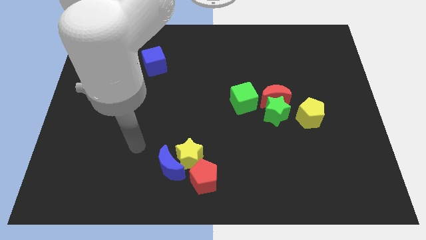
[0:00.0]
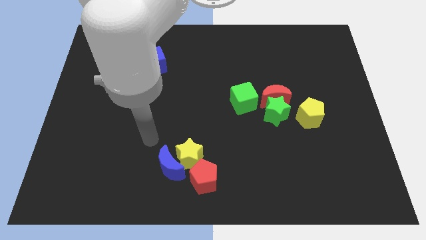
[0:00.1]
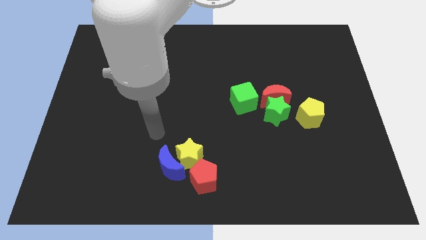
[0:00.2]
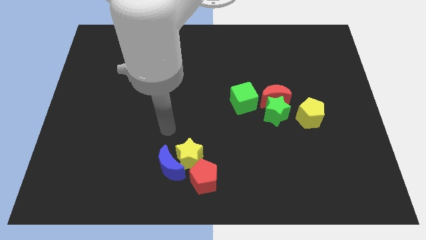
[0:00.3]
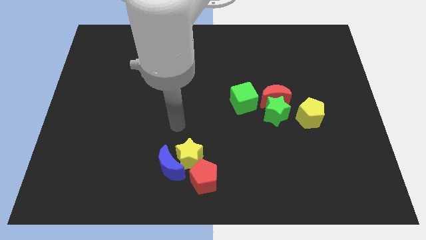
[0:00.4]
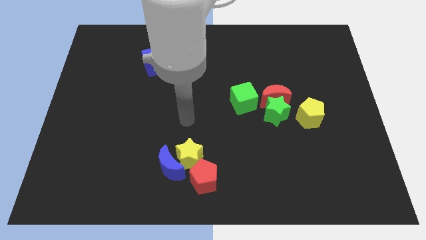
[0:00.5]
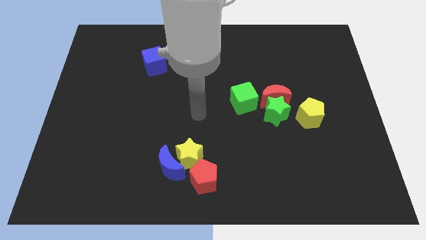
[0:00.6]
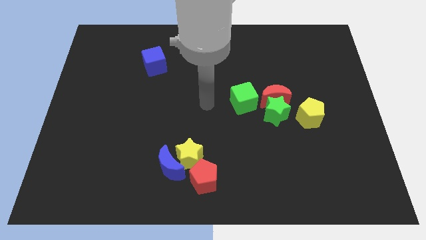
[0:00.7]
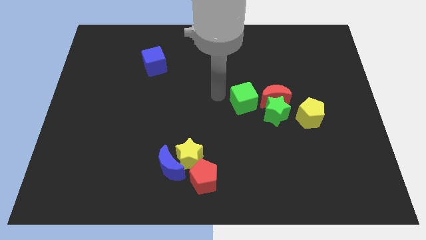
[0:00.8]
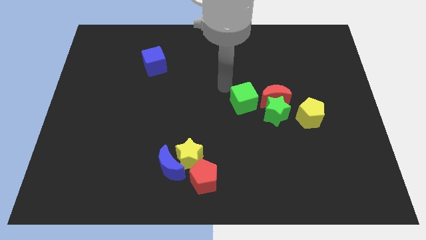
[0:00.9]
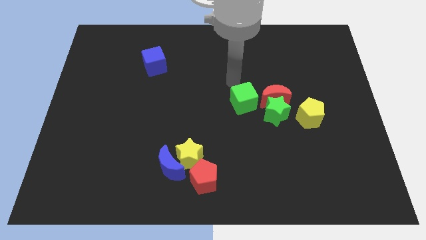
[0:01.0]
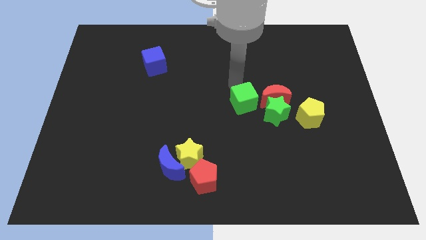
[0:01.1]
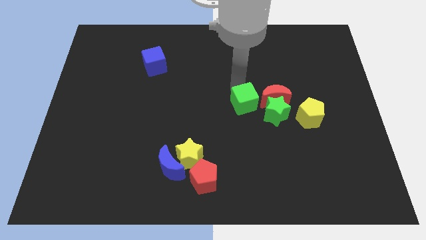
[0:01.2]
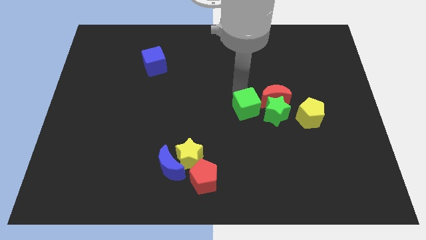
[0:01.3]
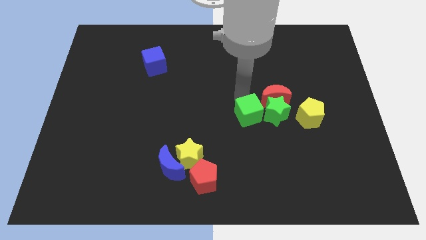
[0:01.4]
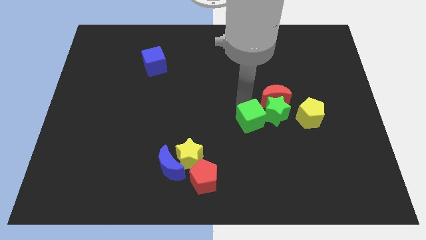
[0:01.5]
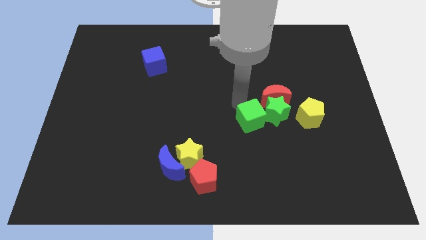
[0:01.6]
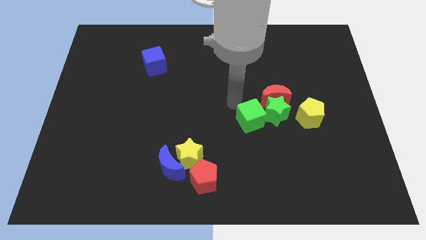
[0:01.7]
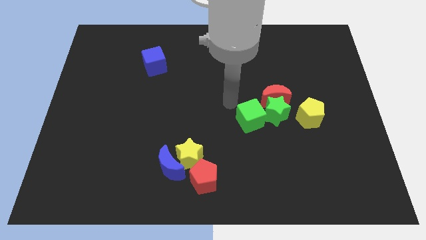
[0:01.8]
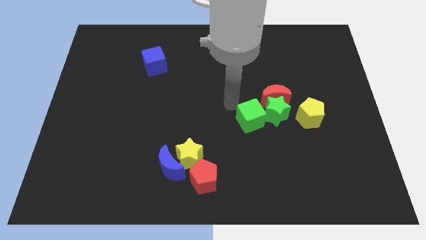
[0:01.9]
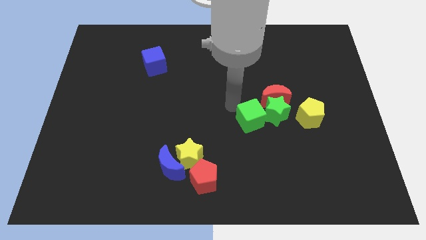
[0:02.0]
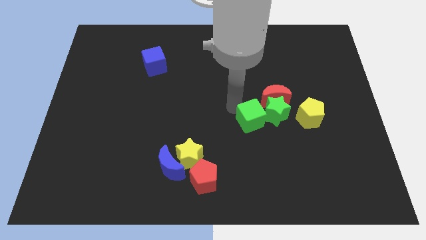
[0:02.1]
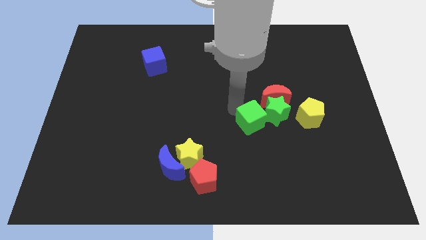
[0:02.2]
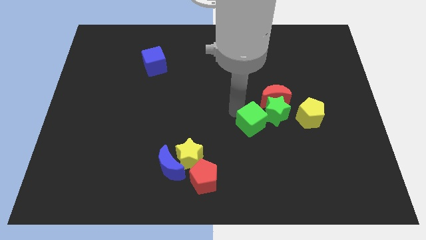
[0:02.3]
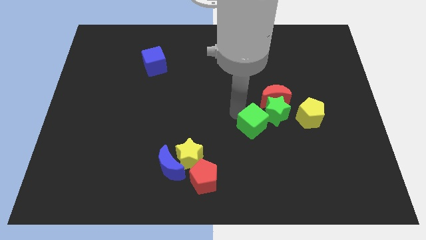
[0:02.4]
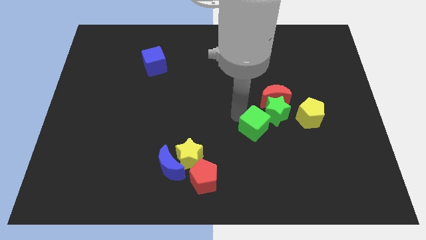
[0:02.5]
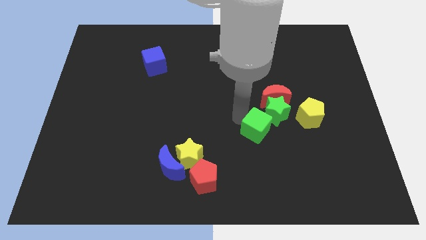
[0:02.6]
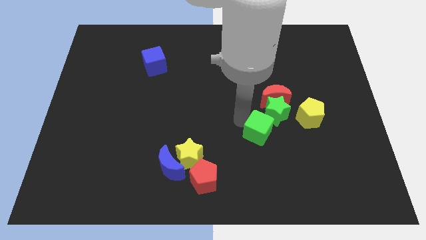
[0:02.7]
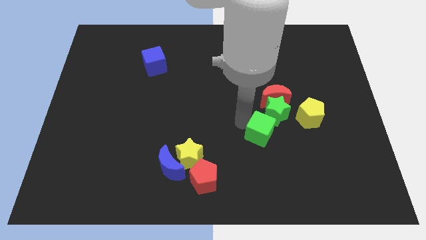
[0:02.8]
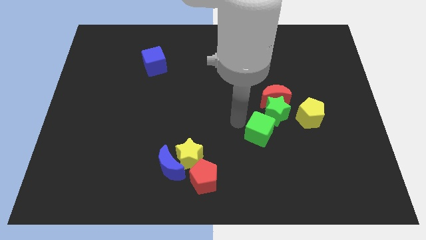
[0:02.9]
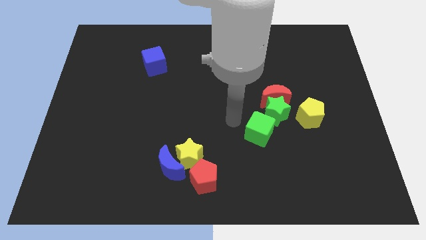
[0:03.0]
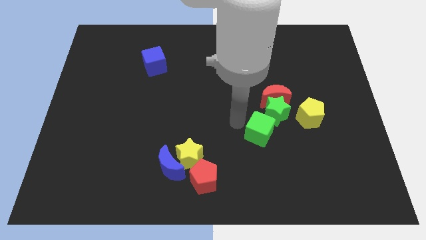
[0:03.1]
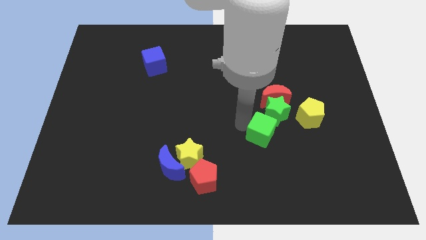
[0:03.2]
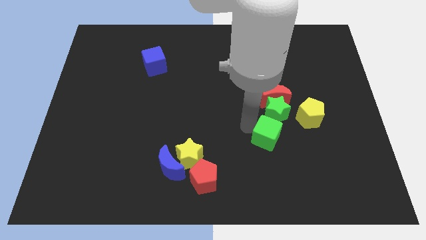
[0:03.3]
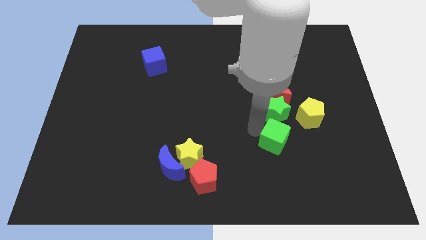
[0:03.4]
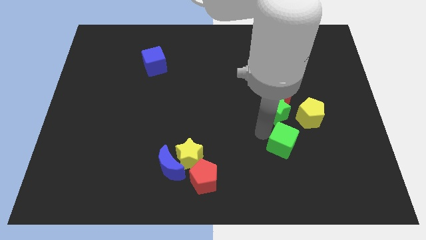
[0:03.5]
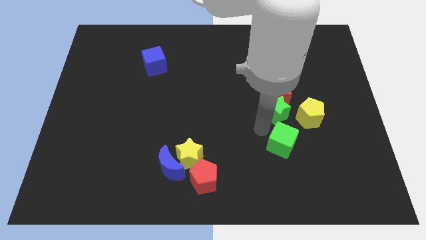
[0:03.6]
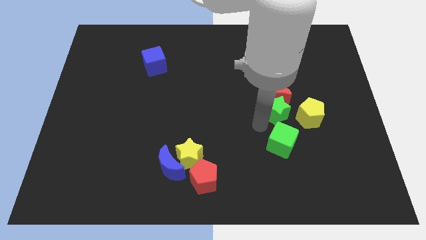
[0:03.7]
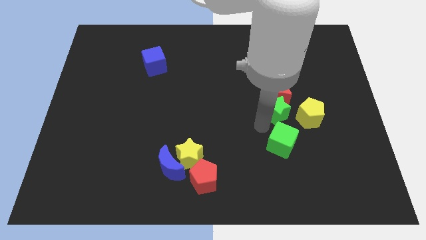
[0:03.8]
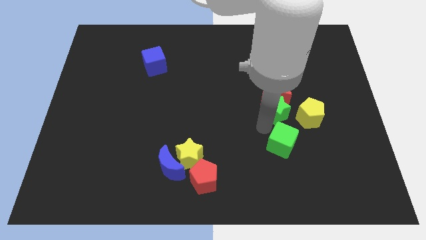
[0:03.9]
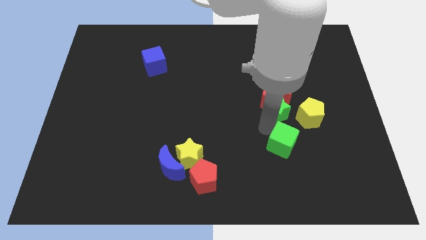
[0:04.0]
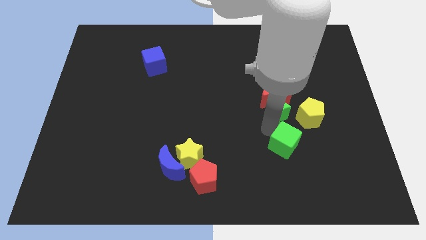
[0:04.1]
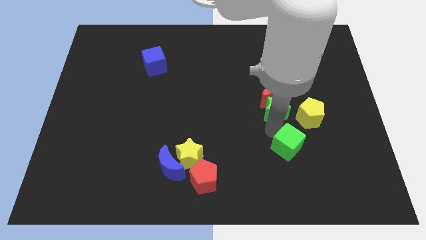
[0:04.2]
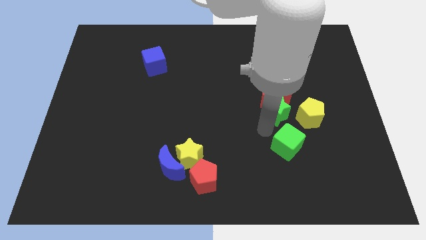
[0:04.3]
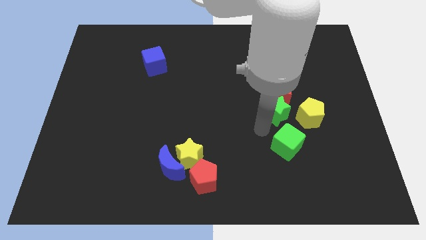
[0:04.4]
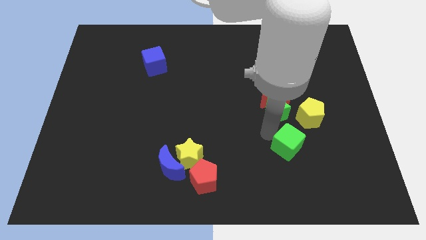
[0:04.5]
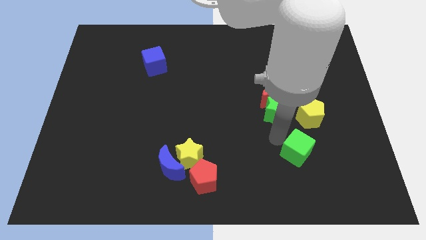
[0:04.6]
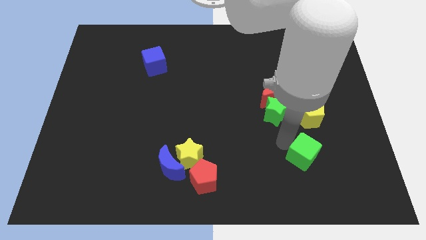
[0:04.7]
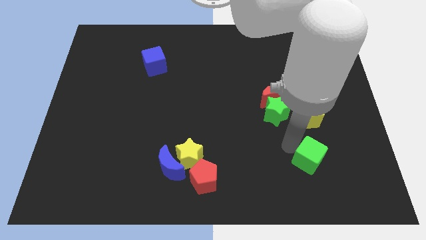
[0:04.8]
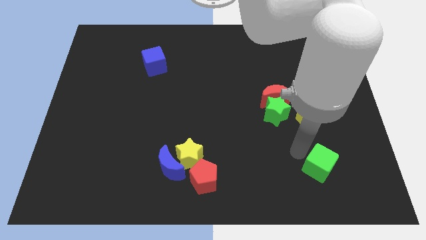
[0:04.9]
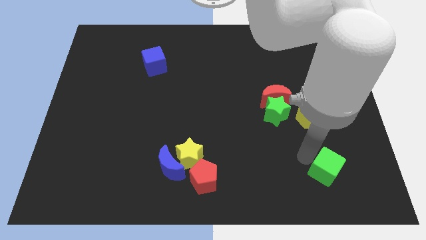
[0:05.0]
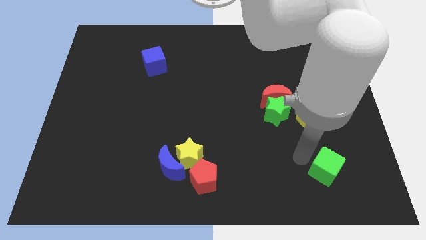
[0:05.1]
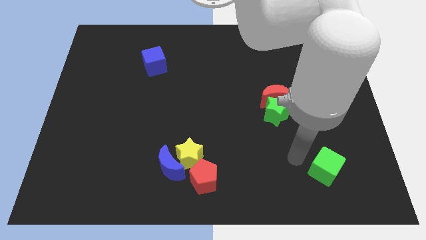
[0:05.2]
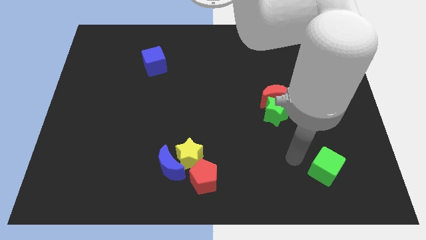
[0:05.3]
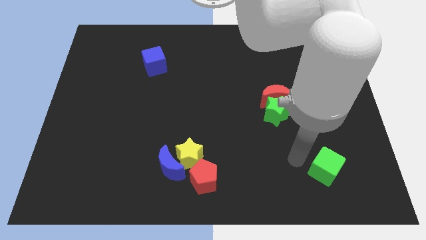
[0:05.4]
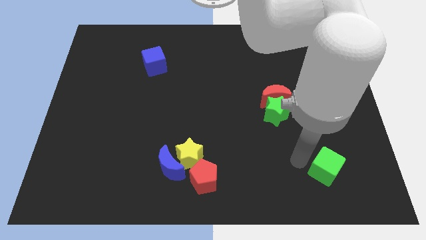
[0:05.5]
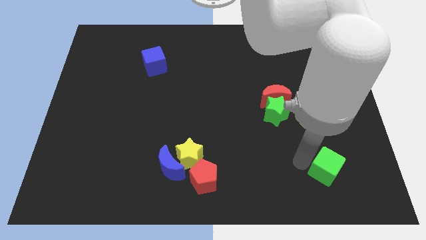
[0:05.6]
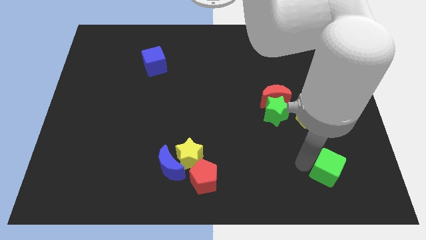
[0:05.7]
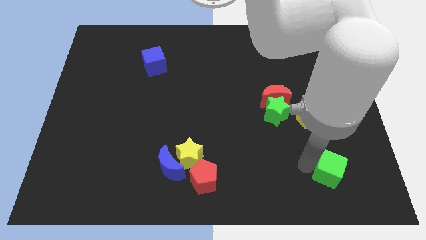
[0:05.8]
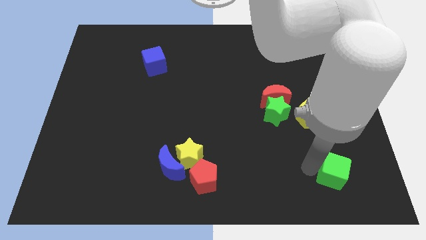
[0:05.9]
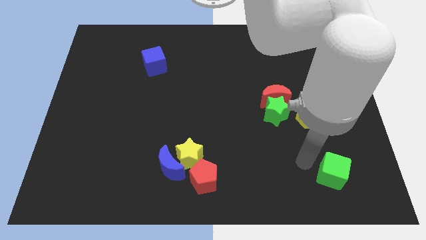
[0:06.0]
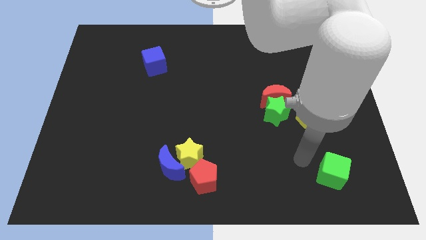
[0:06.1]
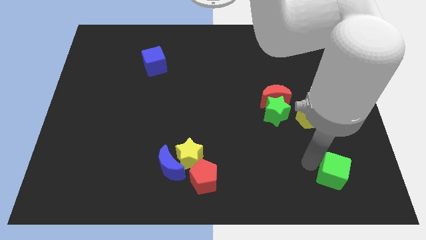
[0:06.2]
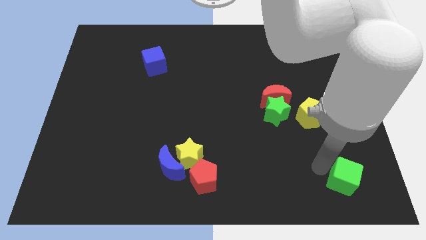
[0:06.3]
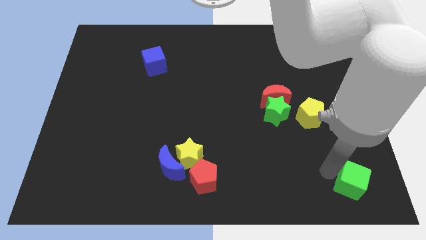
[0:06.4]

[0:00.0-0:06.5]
move the green cube to the lower right corner

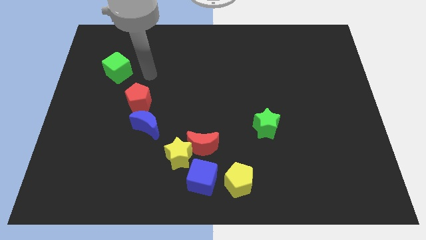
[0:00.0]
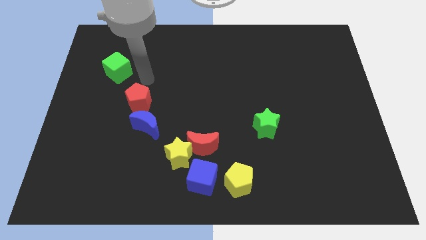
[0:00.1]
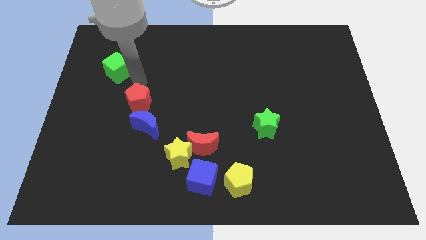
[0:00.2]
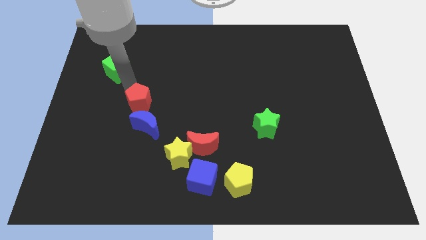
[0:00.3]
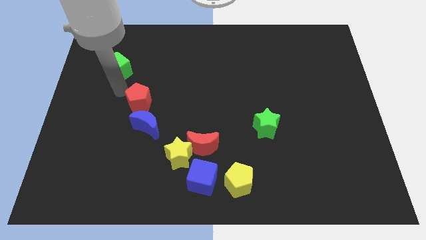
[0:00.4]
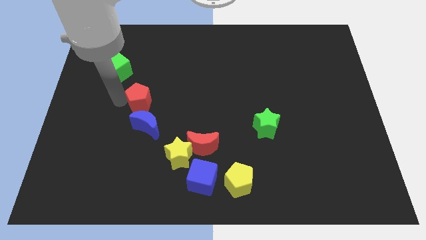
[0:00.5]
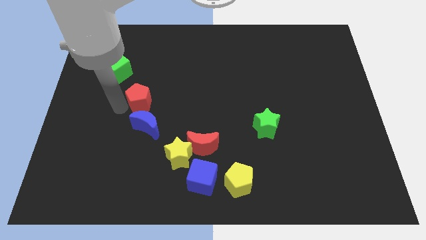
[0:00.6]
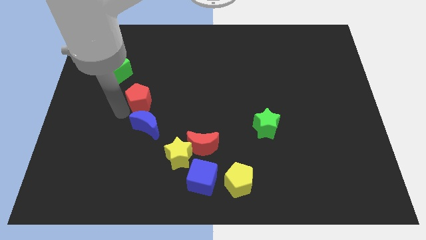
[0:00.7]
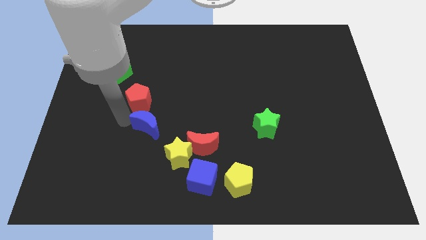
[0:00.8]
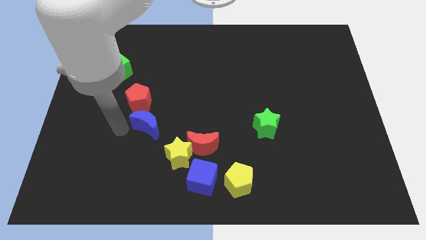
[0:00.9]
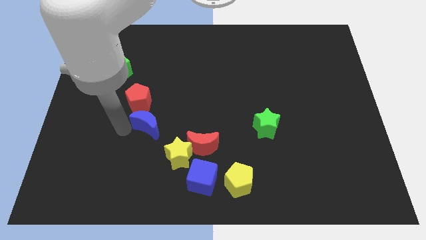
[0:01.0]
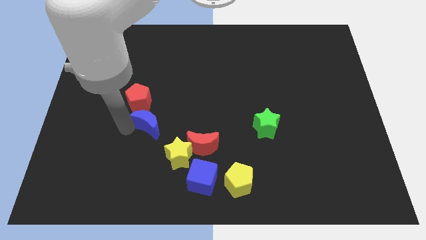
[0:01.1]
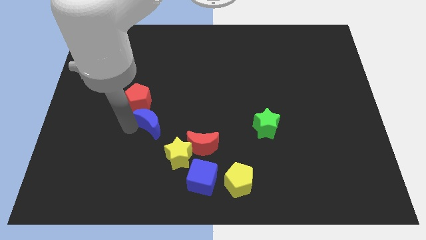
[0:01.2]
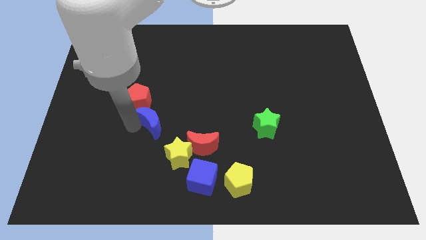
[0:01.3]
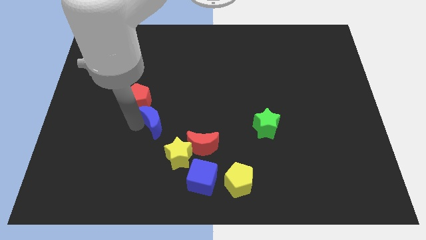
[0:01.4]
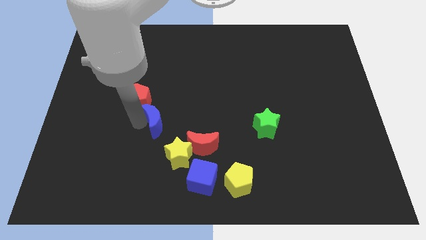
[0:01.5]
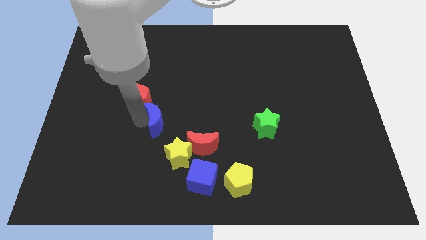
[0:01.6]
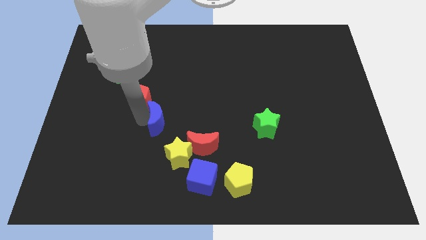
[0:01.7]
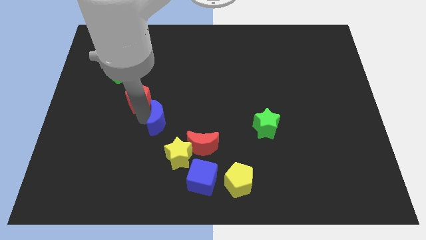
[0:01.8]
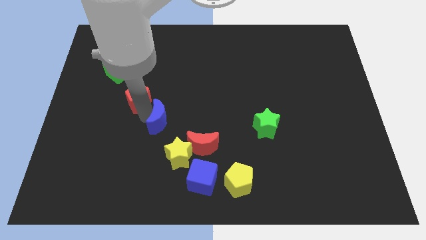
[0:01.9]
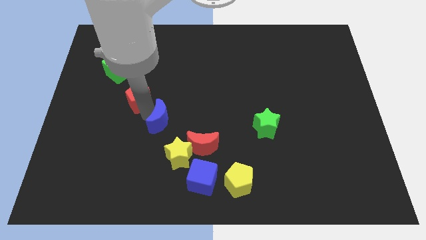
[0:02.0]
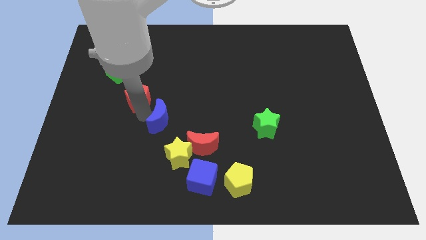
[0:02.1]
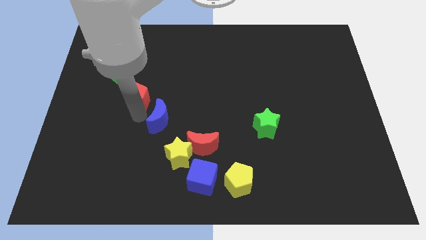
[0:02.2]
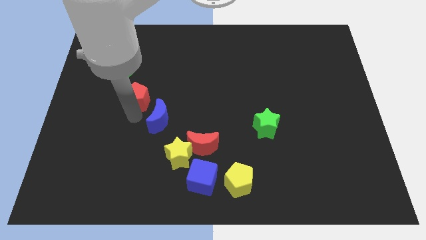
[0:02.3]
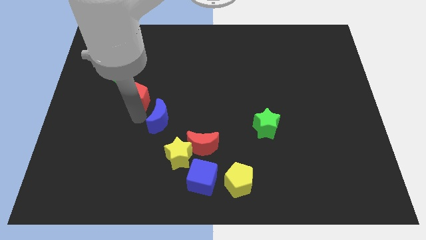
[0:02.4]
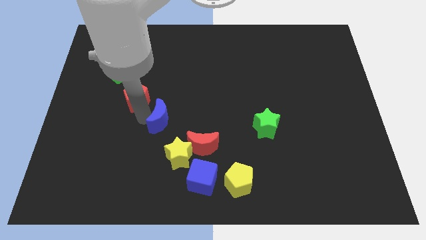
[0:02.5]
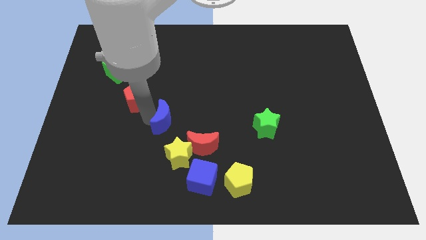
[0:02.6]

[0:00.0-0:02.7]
move the blue moon to the center of the board
